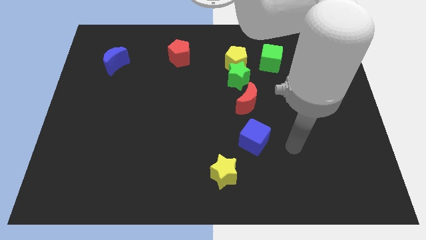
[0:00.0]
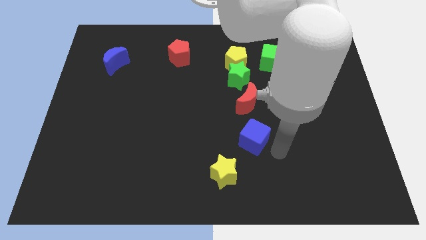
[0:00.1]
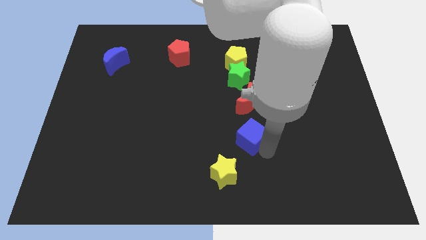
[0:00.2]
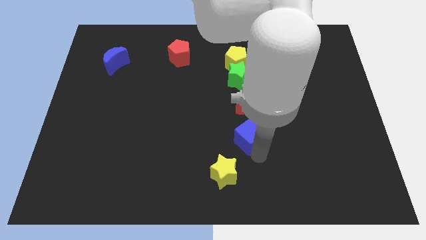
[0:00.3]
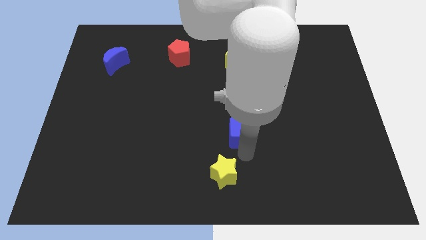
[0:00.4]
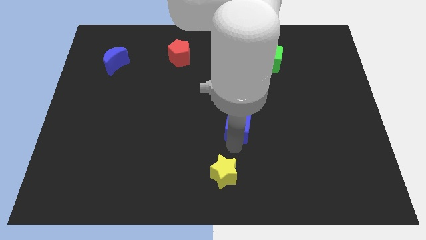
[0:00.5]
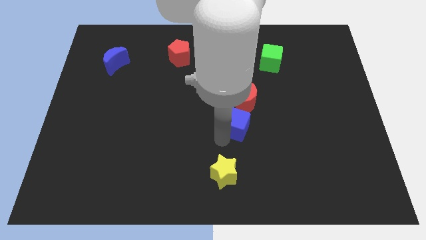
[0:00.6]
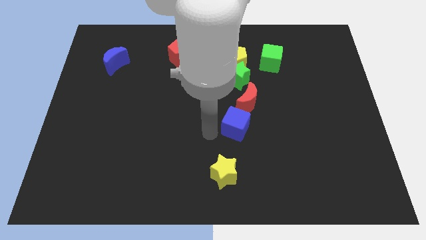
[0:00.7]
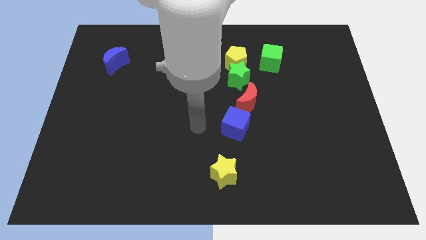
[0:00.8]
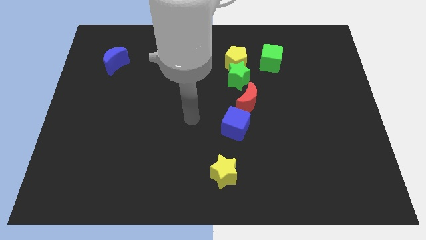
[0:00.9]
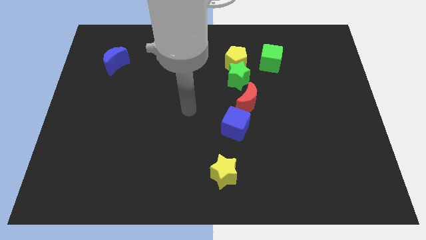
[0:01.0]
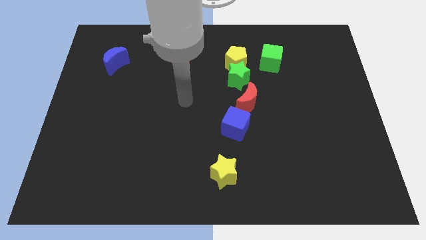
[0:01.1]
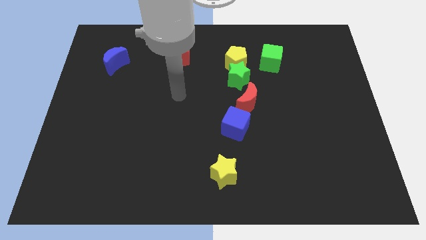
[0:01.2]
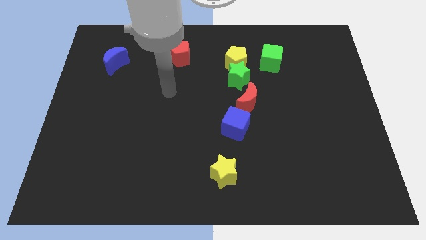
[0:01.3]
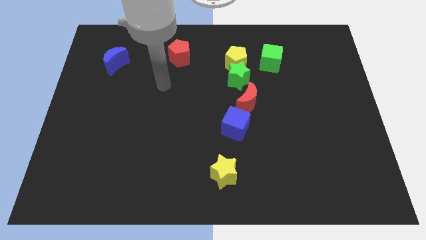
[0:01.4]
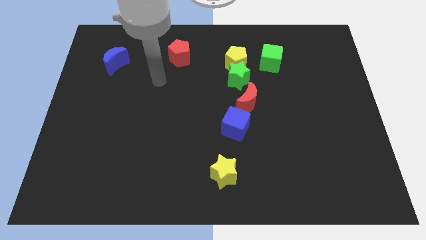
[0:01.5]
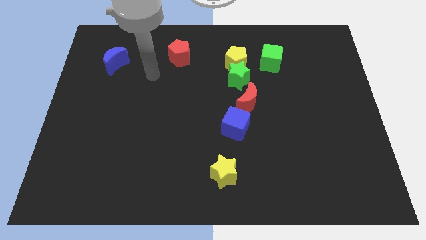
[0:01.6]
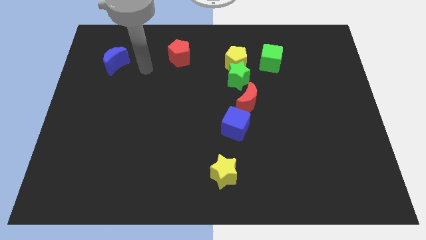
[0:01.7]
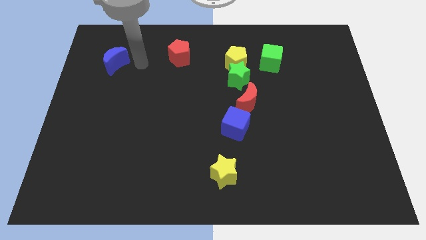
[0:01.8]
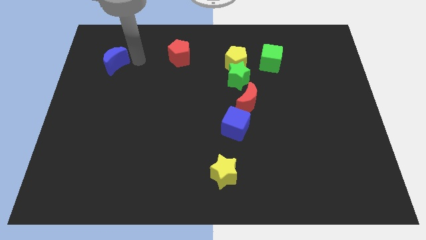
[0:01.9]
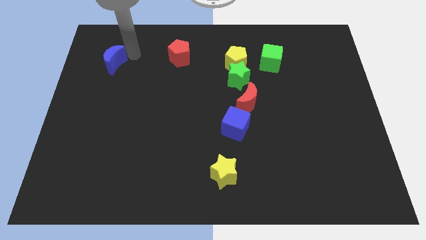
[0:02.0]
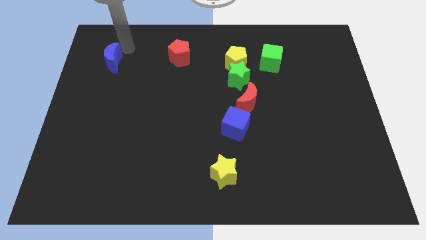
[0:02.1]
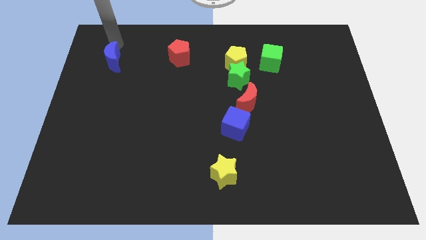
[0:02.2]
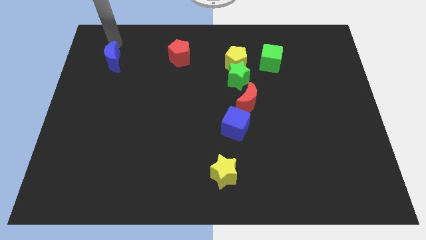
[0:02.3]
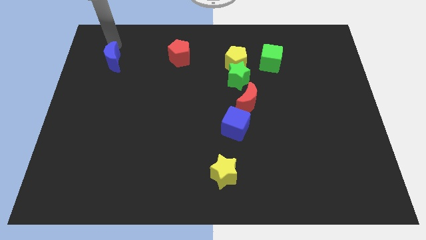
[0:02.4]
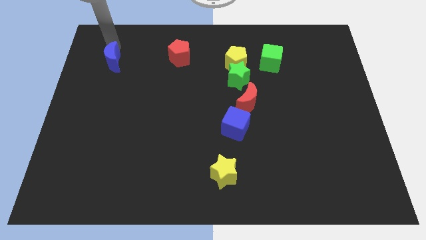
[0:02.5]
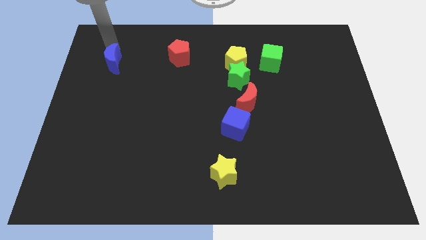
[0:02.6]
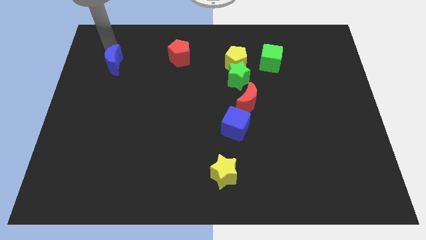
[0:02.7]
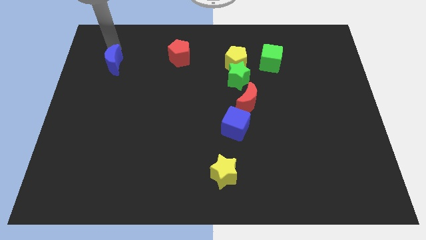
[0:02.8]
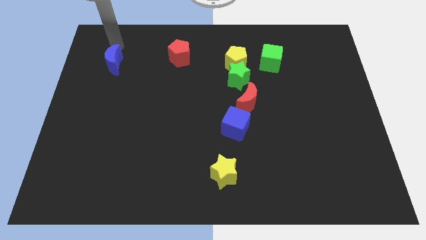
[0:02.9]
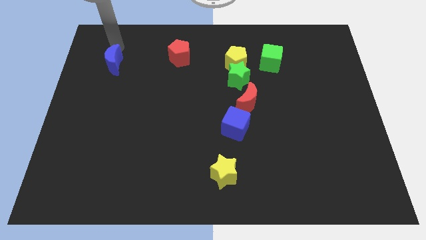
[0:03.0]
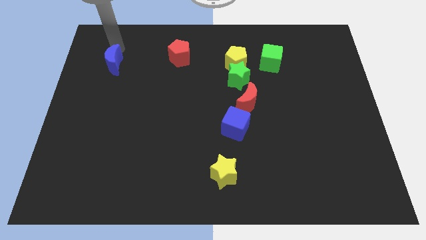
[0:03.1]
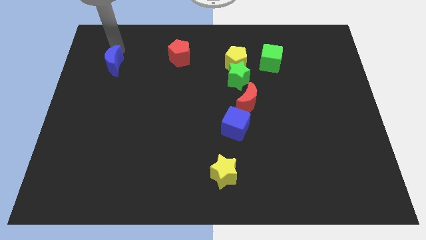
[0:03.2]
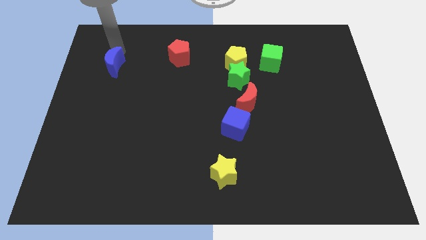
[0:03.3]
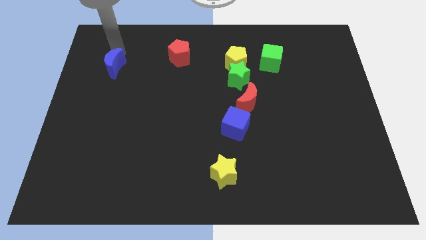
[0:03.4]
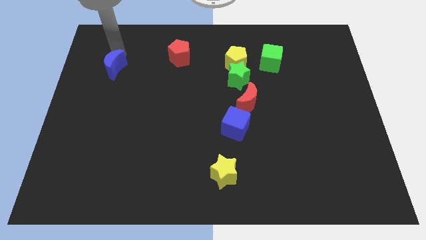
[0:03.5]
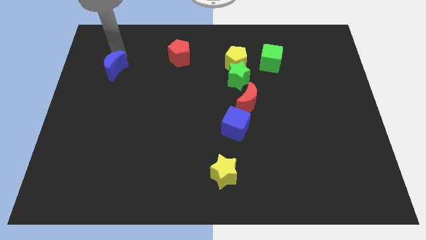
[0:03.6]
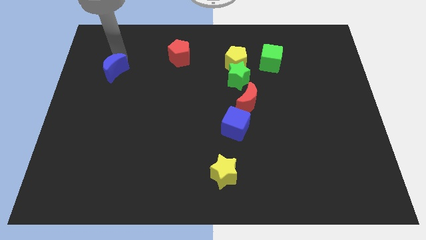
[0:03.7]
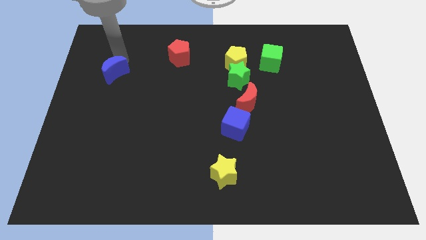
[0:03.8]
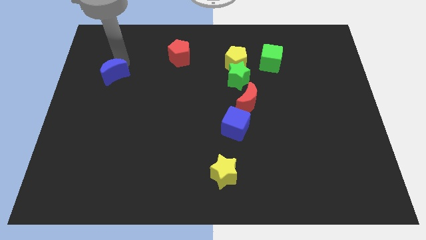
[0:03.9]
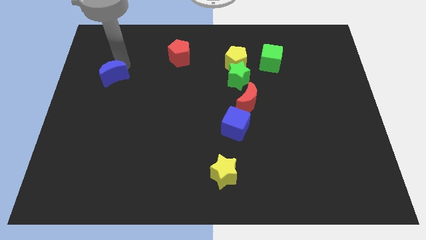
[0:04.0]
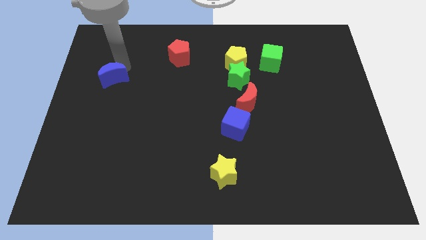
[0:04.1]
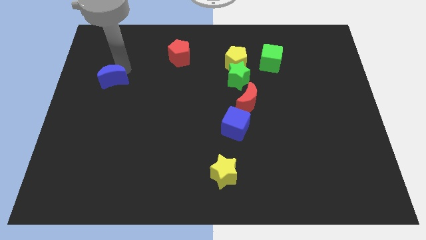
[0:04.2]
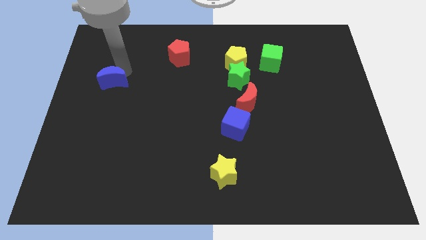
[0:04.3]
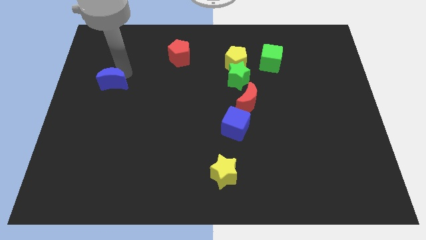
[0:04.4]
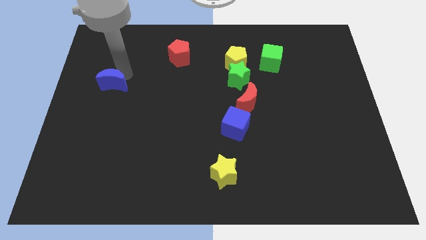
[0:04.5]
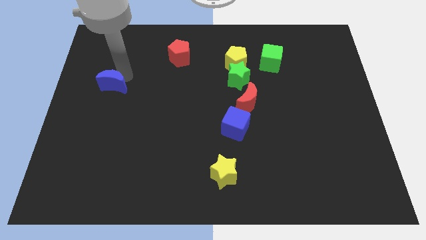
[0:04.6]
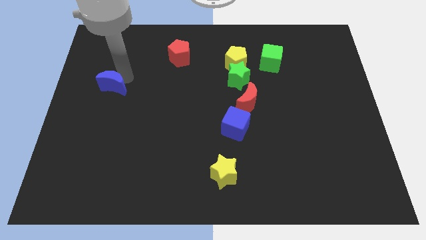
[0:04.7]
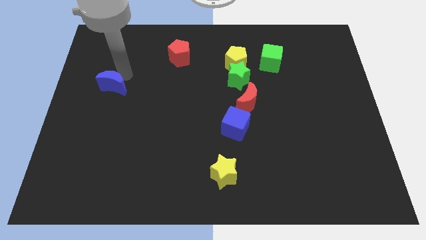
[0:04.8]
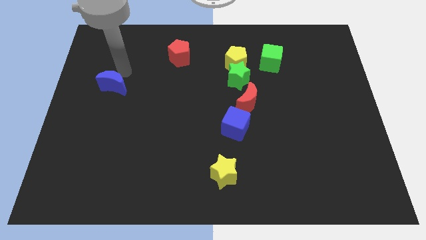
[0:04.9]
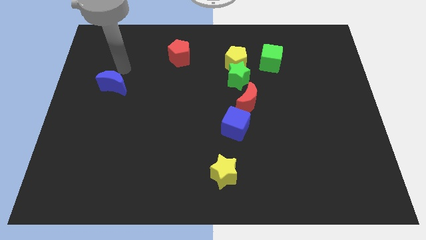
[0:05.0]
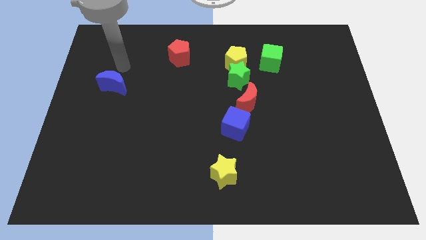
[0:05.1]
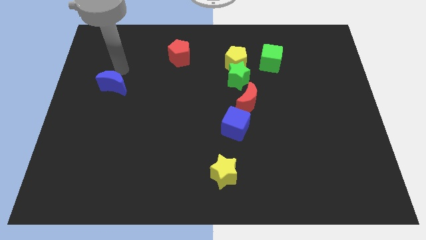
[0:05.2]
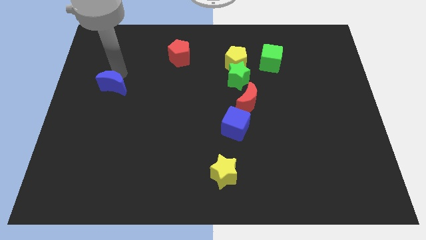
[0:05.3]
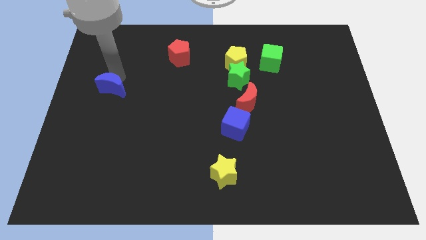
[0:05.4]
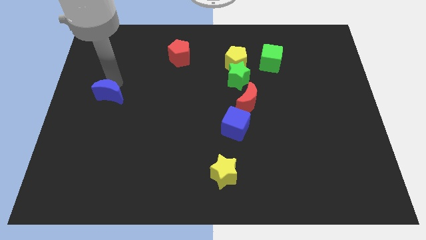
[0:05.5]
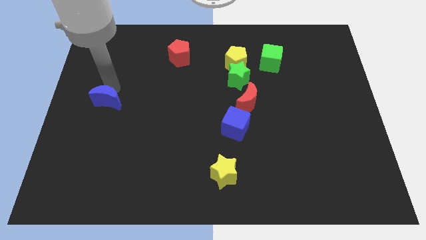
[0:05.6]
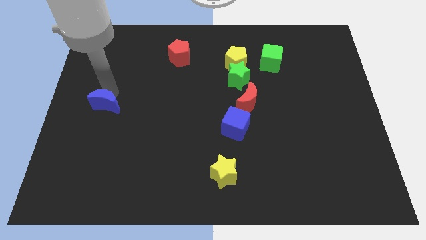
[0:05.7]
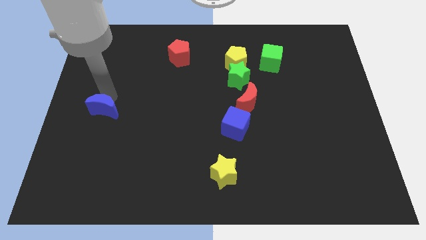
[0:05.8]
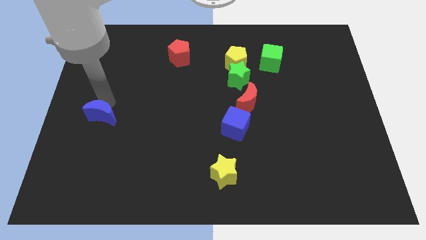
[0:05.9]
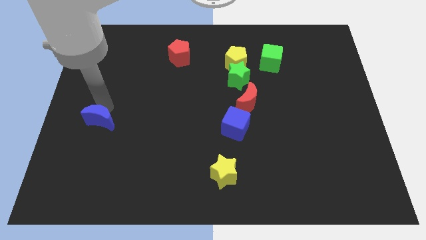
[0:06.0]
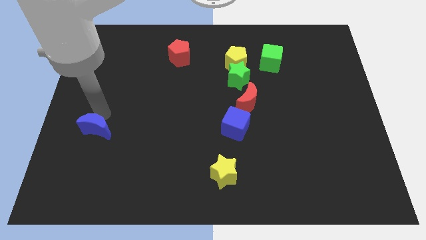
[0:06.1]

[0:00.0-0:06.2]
push the blue moon down

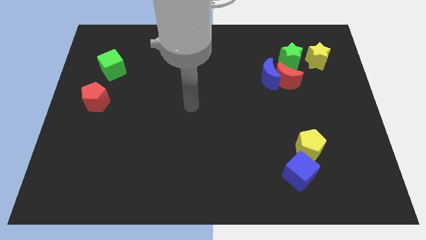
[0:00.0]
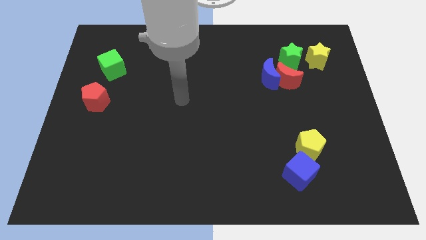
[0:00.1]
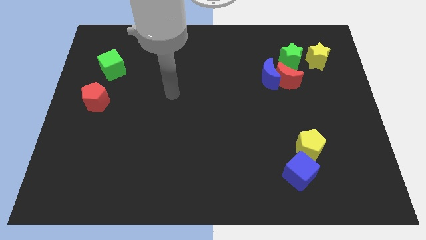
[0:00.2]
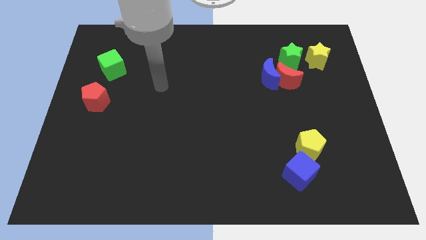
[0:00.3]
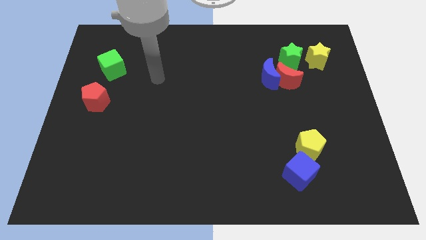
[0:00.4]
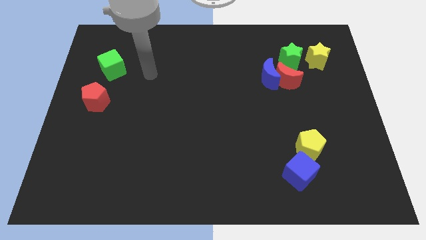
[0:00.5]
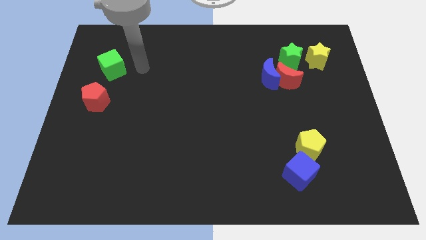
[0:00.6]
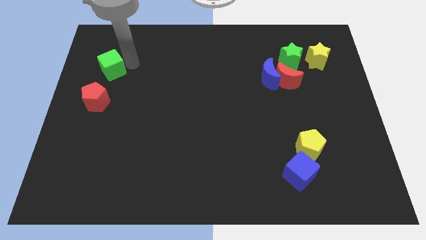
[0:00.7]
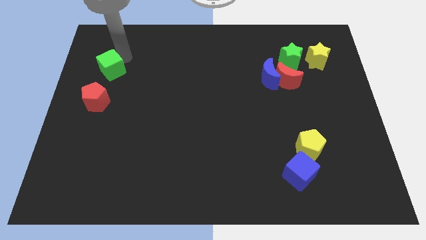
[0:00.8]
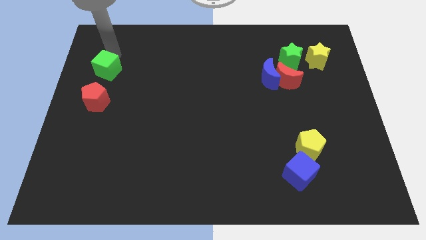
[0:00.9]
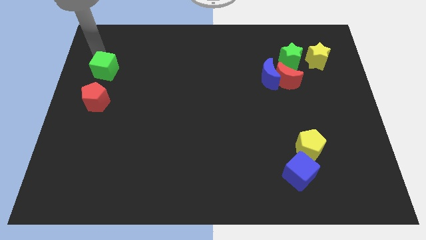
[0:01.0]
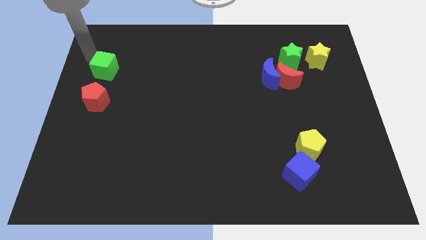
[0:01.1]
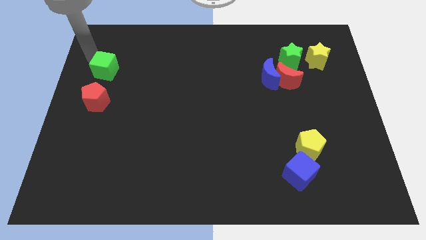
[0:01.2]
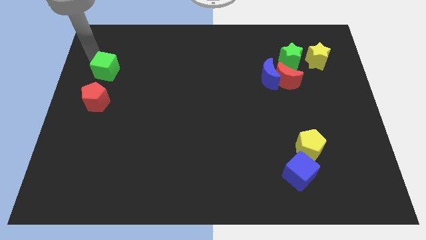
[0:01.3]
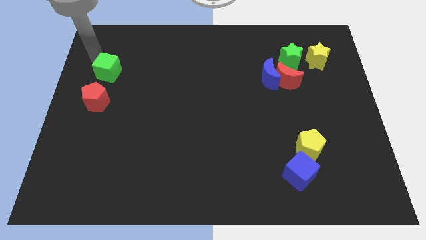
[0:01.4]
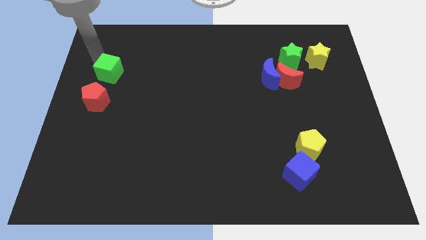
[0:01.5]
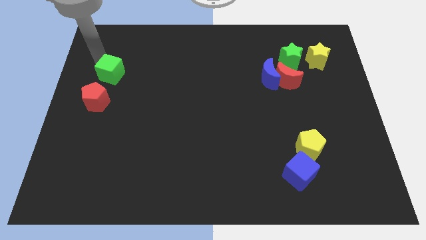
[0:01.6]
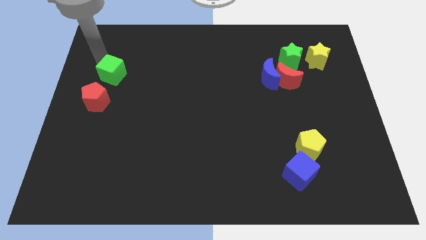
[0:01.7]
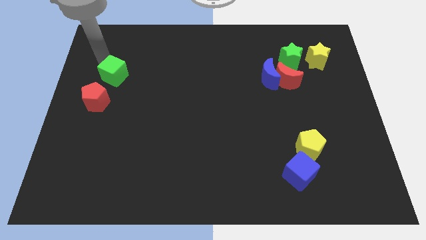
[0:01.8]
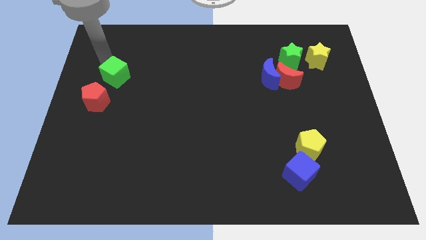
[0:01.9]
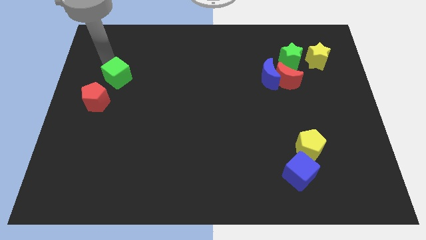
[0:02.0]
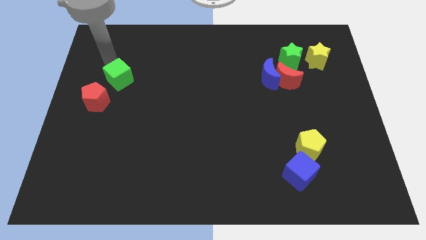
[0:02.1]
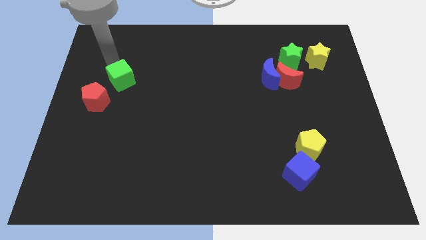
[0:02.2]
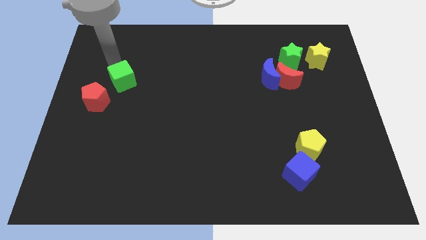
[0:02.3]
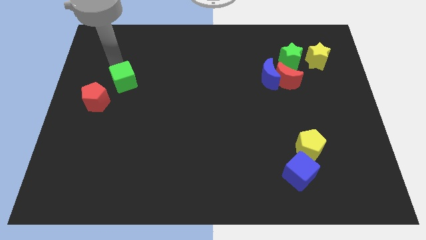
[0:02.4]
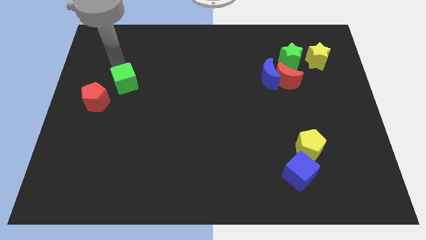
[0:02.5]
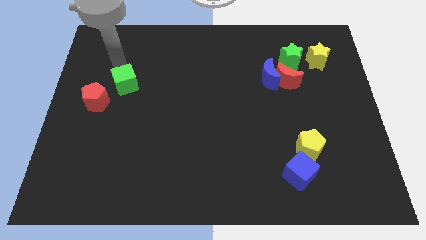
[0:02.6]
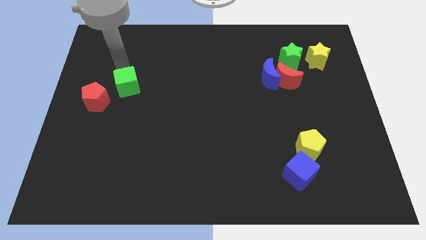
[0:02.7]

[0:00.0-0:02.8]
slightly slide the green cube diagonally downwards and to the right
